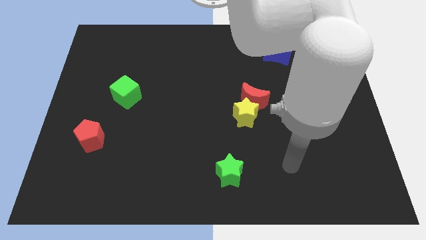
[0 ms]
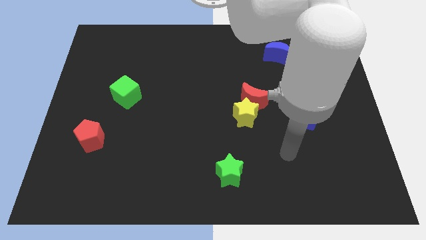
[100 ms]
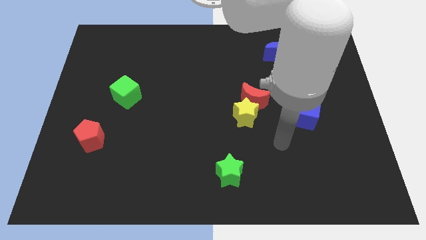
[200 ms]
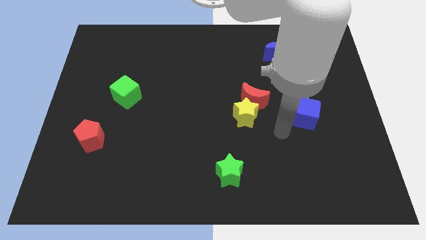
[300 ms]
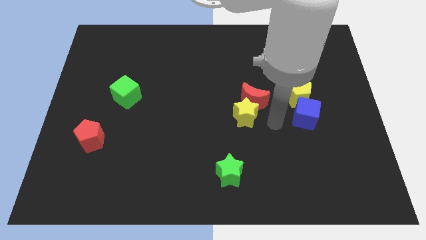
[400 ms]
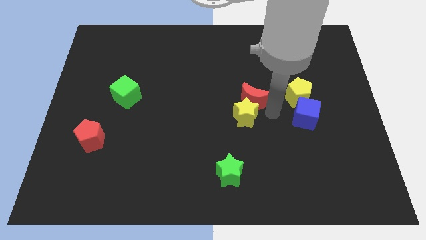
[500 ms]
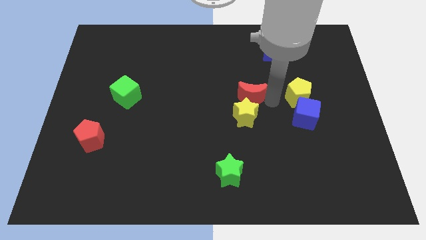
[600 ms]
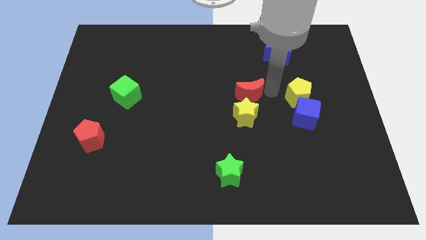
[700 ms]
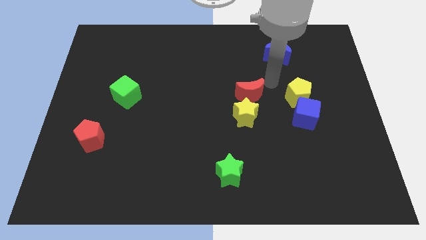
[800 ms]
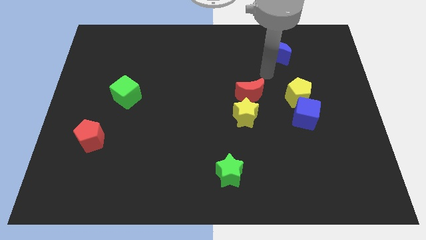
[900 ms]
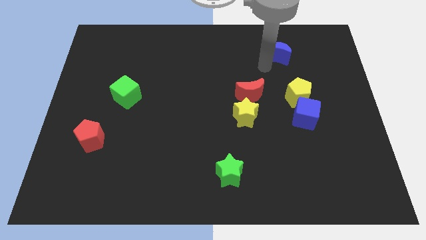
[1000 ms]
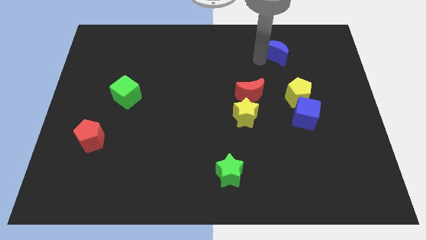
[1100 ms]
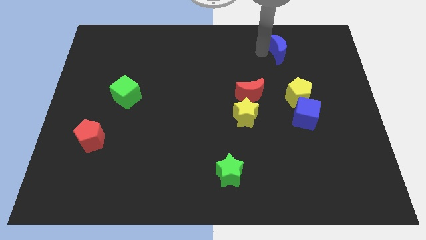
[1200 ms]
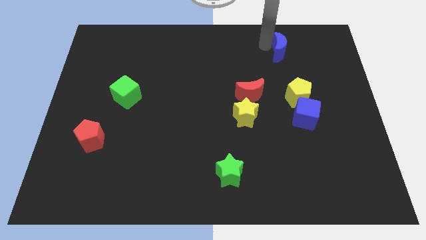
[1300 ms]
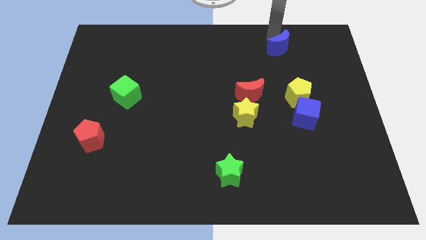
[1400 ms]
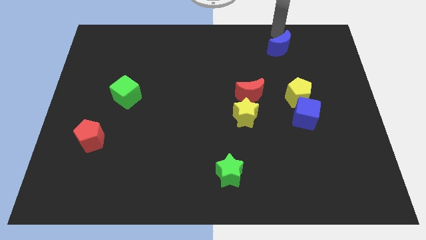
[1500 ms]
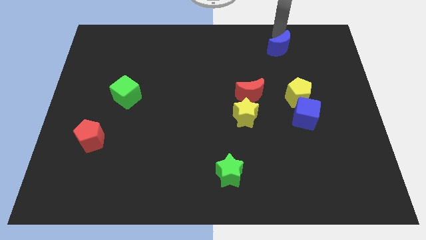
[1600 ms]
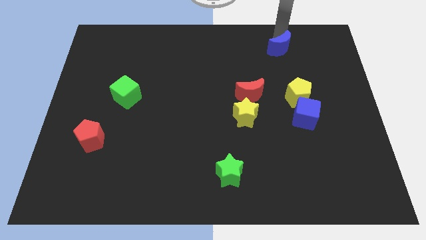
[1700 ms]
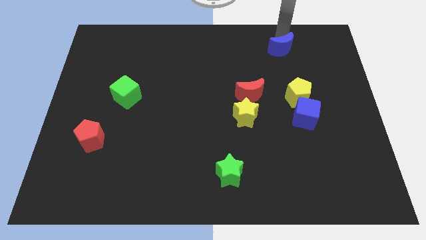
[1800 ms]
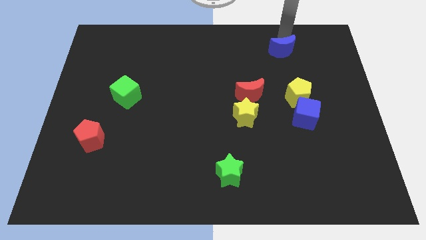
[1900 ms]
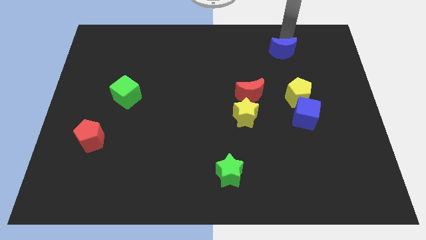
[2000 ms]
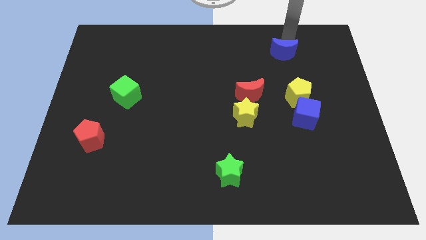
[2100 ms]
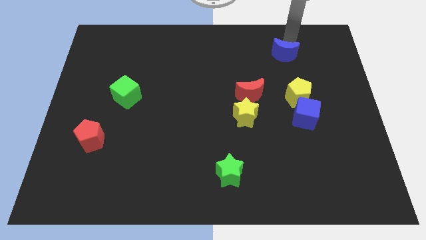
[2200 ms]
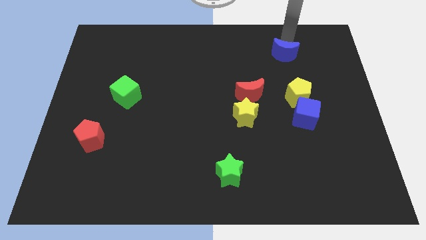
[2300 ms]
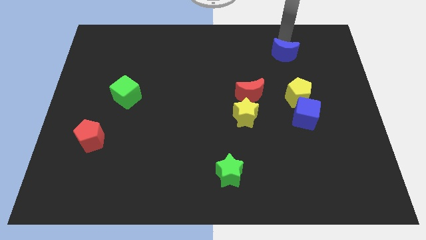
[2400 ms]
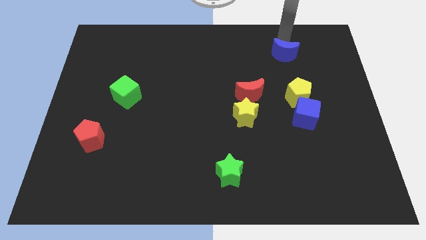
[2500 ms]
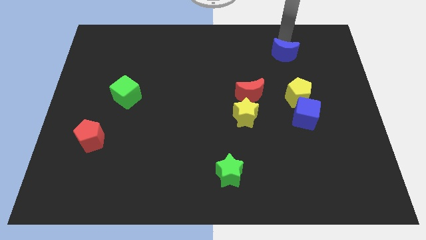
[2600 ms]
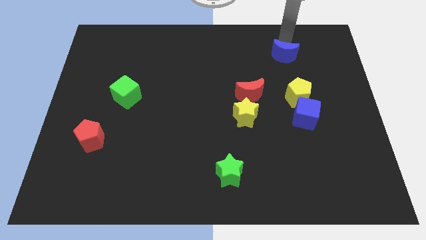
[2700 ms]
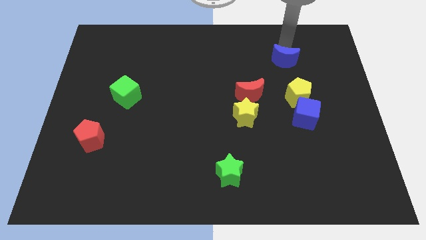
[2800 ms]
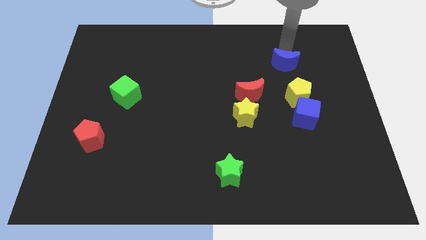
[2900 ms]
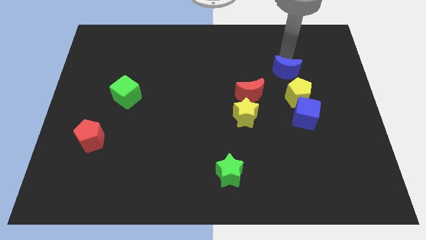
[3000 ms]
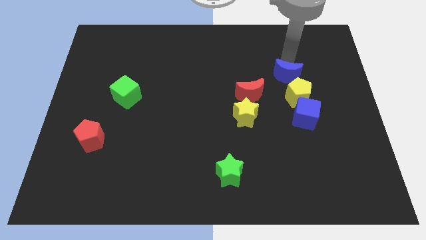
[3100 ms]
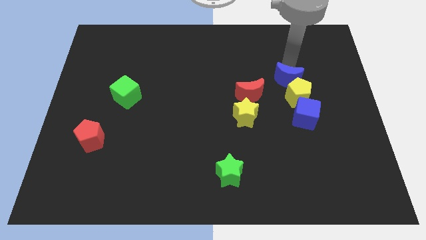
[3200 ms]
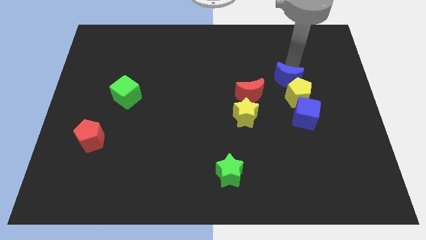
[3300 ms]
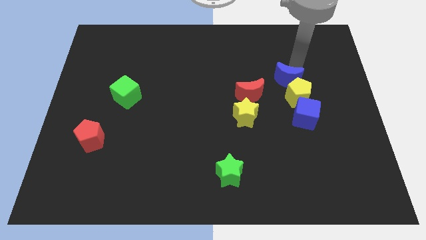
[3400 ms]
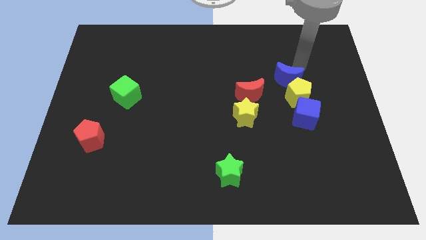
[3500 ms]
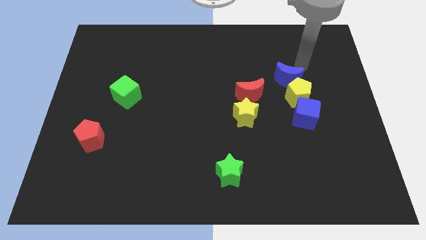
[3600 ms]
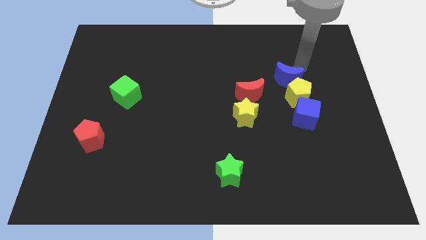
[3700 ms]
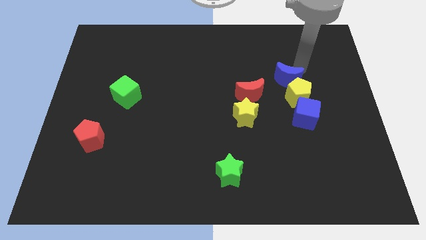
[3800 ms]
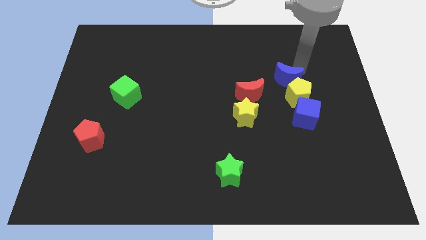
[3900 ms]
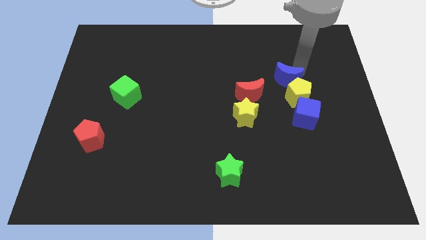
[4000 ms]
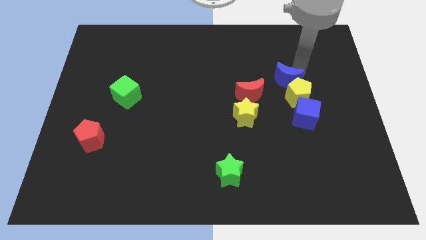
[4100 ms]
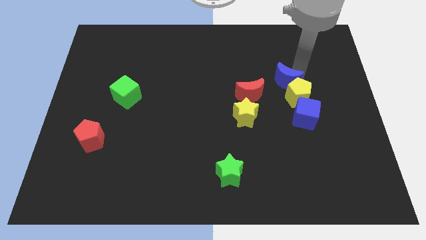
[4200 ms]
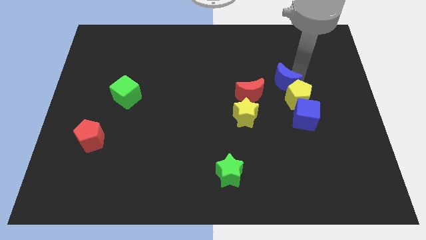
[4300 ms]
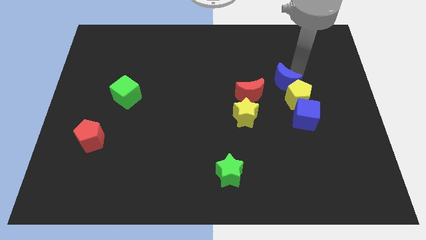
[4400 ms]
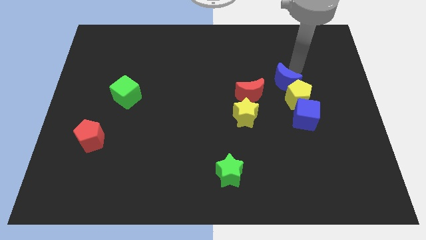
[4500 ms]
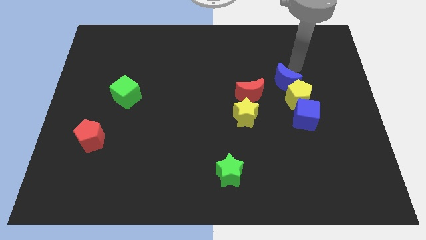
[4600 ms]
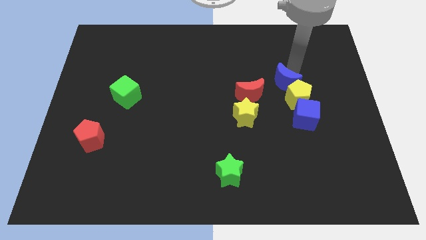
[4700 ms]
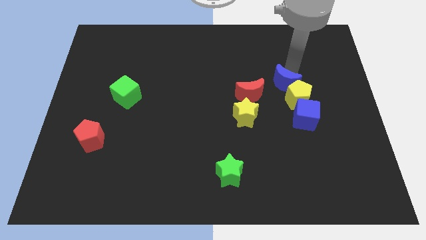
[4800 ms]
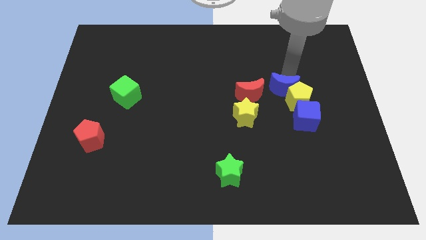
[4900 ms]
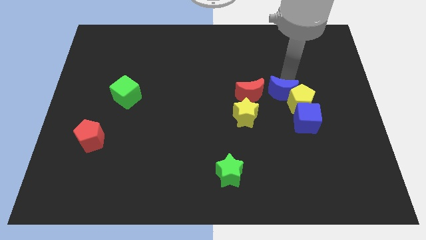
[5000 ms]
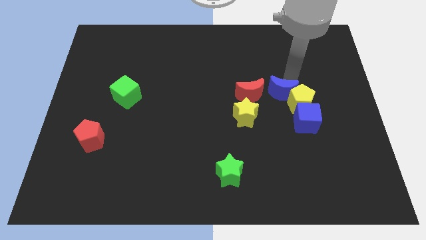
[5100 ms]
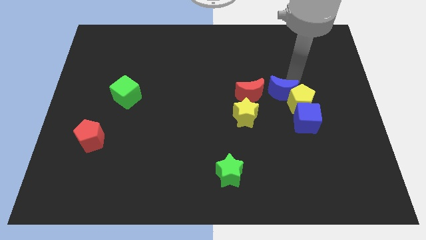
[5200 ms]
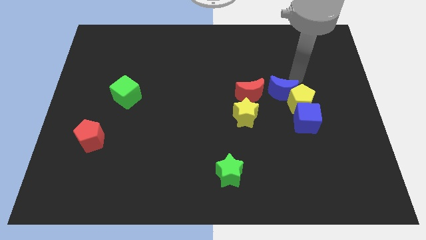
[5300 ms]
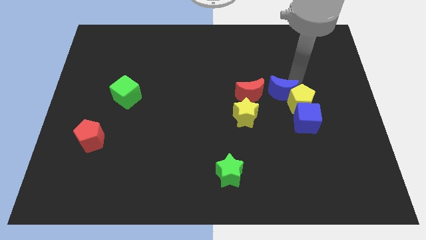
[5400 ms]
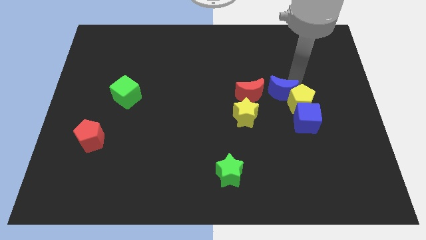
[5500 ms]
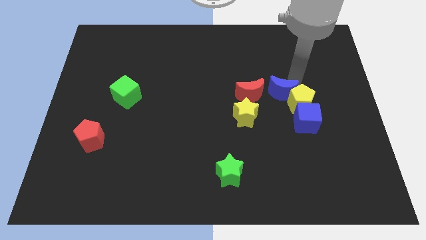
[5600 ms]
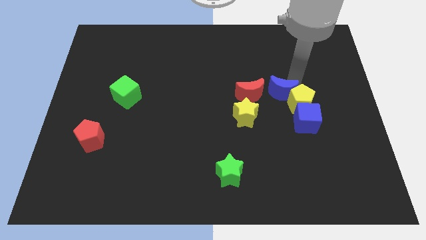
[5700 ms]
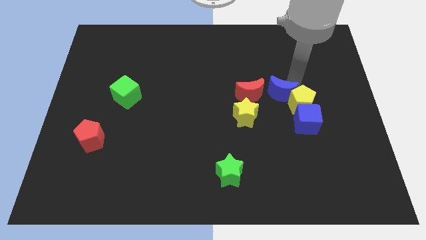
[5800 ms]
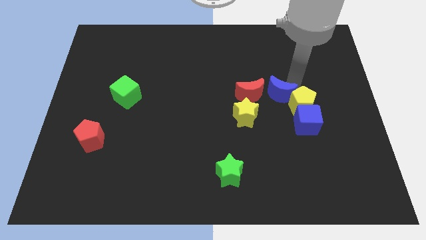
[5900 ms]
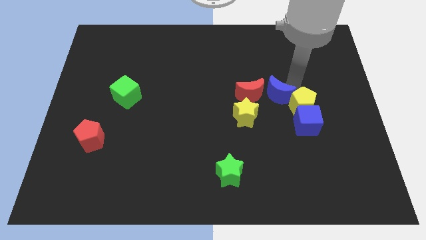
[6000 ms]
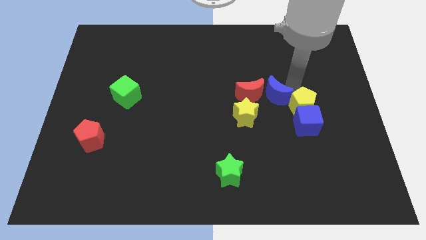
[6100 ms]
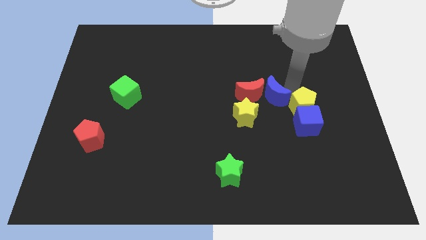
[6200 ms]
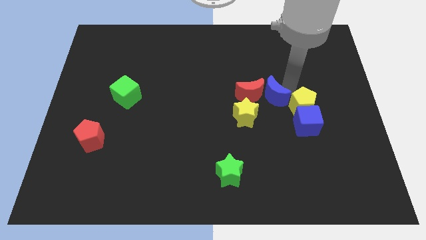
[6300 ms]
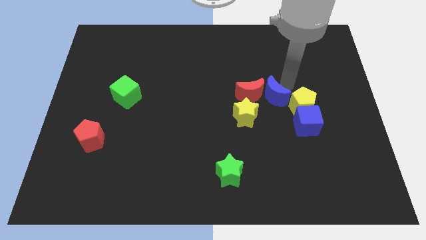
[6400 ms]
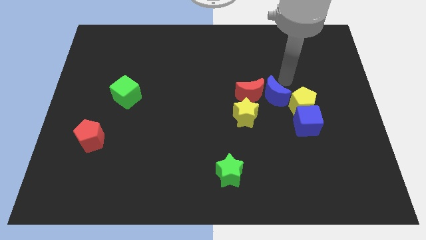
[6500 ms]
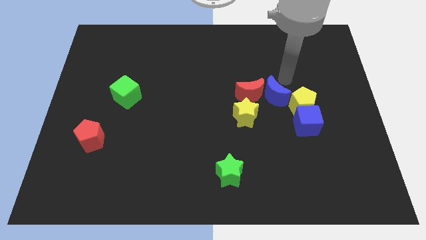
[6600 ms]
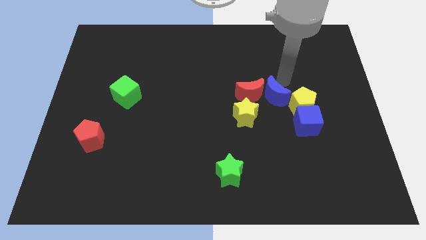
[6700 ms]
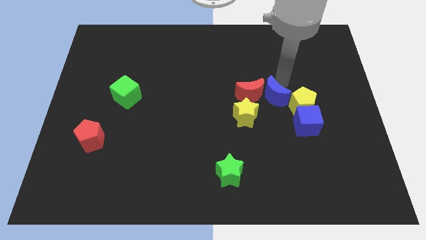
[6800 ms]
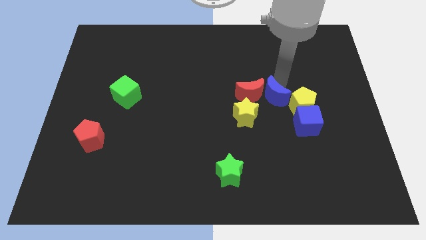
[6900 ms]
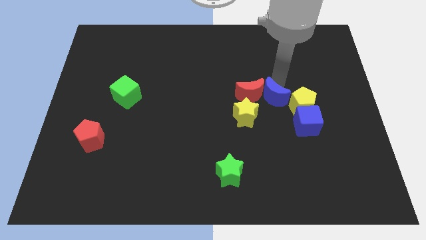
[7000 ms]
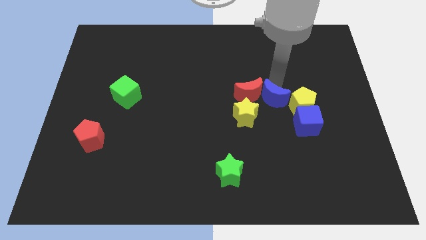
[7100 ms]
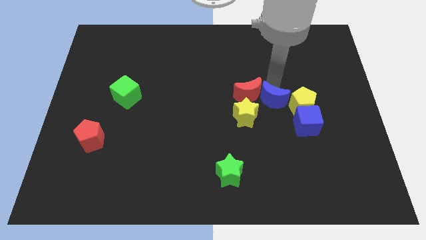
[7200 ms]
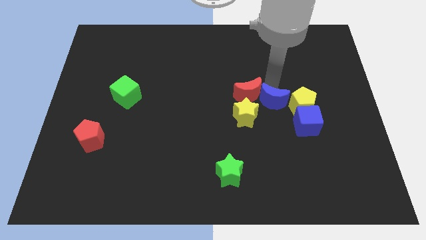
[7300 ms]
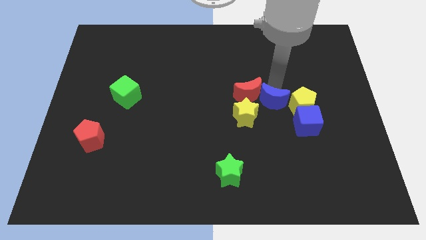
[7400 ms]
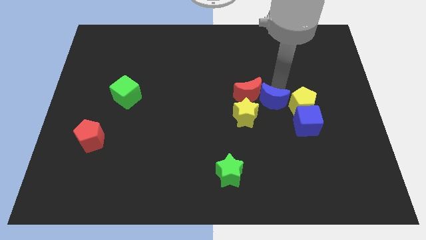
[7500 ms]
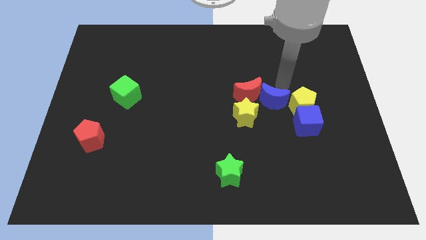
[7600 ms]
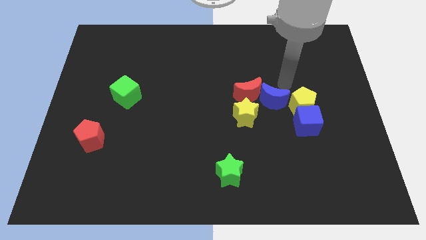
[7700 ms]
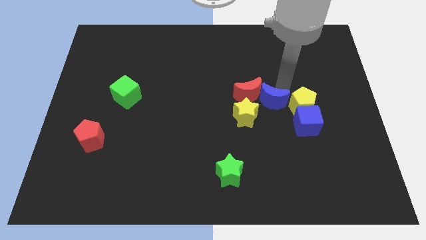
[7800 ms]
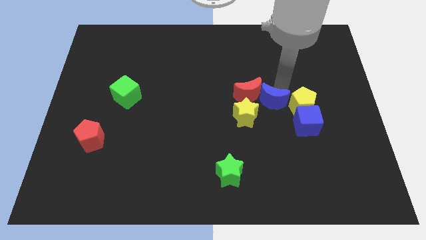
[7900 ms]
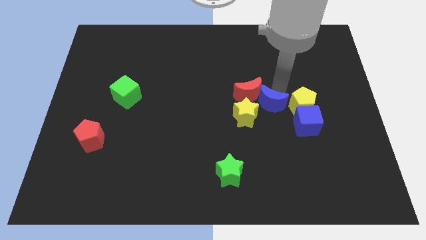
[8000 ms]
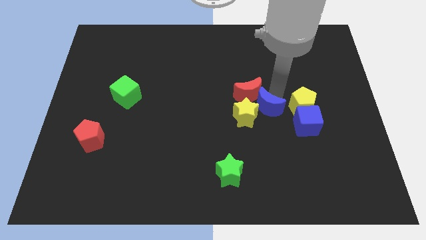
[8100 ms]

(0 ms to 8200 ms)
push the blue moon to the yellow star
